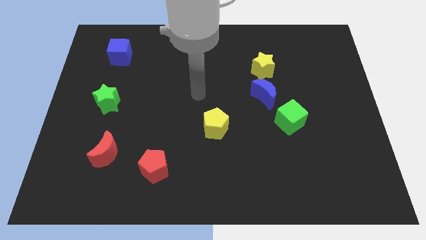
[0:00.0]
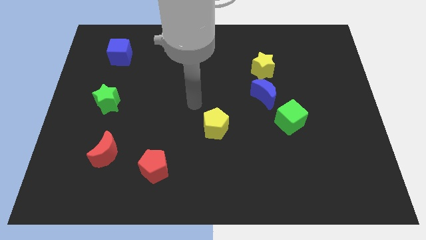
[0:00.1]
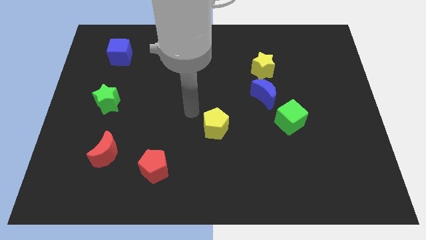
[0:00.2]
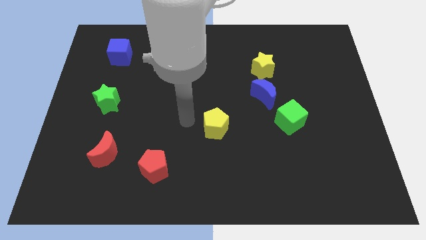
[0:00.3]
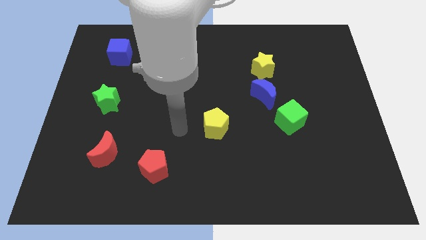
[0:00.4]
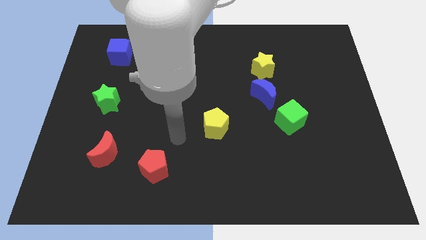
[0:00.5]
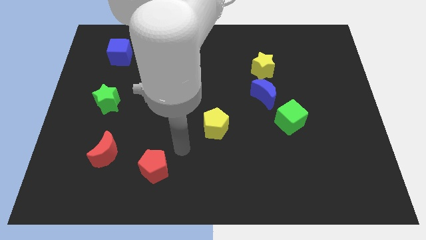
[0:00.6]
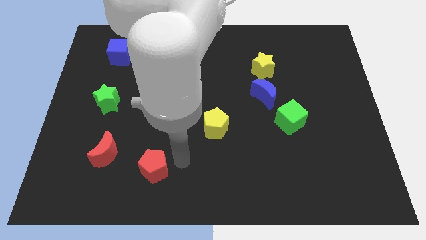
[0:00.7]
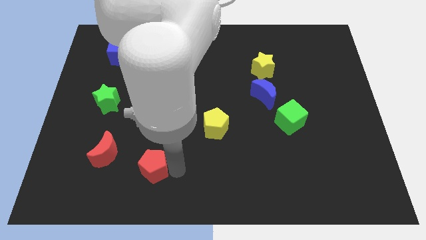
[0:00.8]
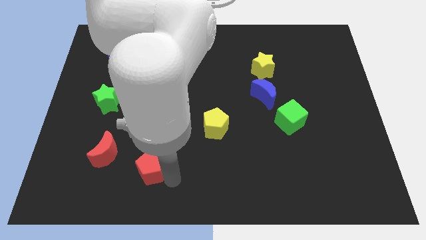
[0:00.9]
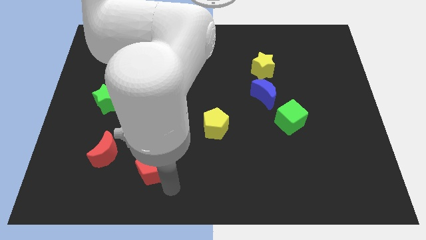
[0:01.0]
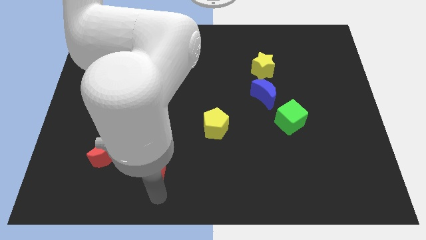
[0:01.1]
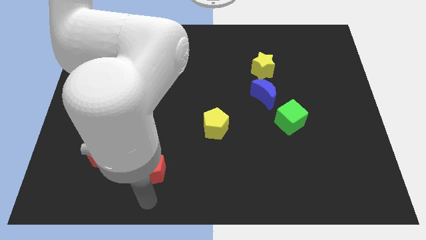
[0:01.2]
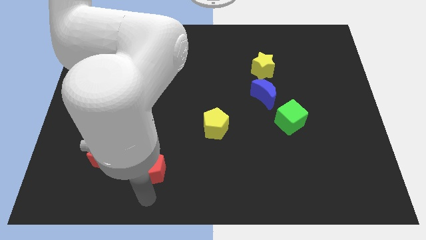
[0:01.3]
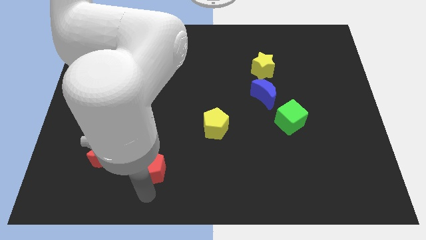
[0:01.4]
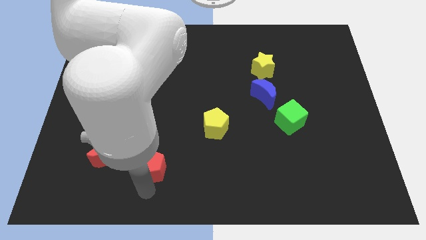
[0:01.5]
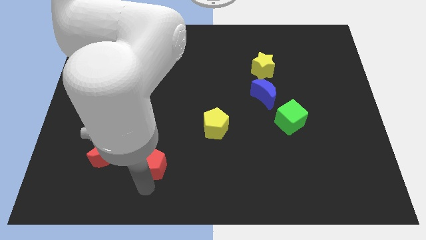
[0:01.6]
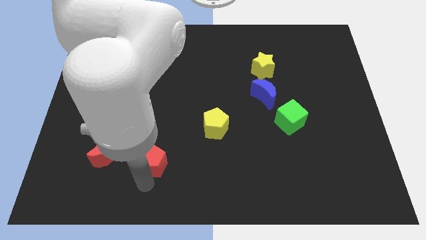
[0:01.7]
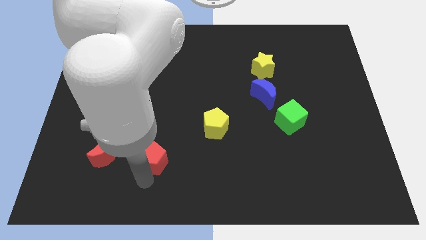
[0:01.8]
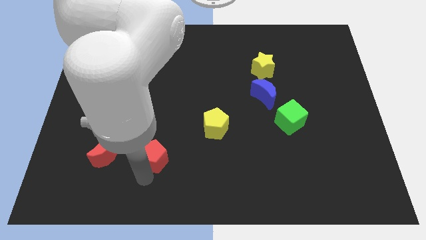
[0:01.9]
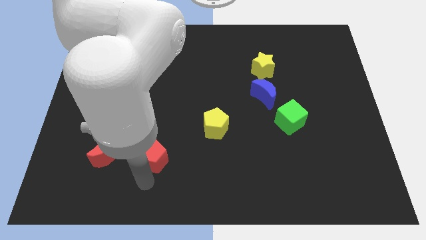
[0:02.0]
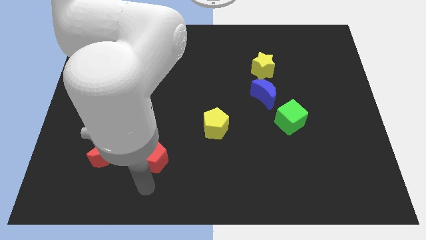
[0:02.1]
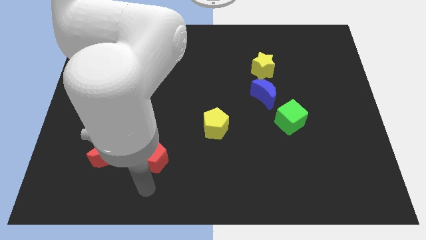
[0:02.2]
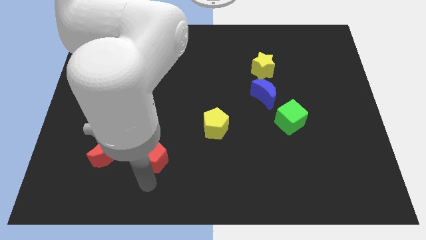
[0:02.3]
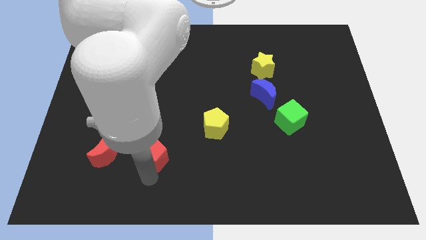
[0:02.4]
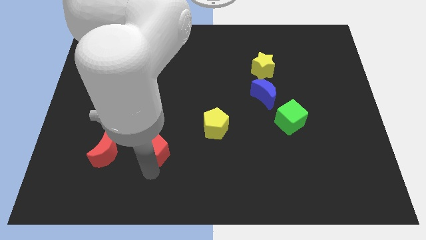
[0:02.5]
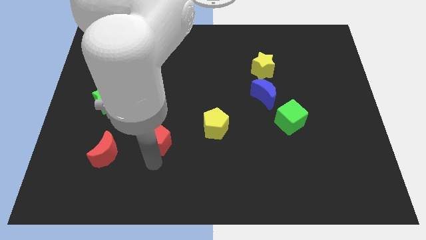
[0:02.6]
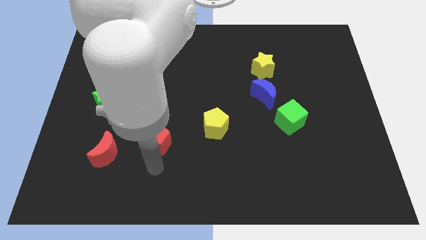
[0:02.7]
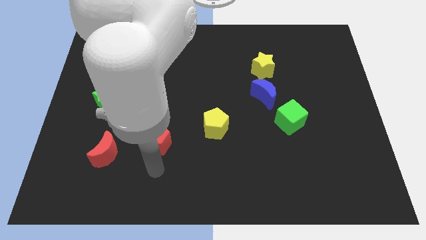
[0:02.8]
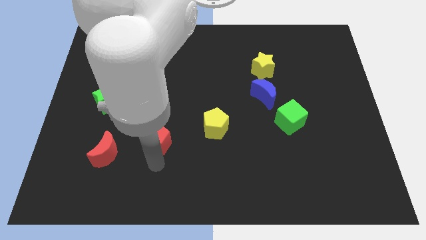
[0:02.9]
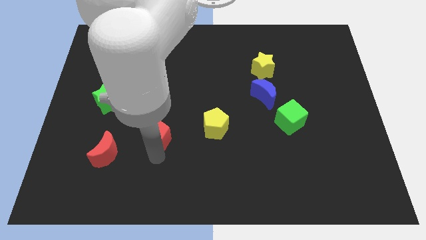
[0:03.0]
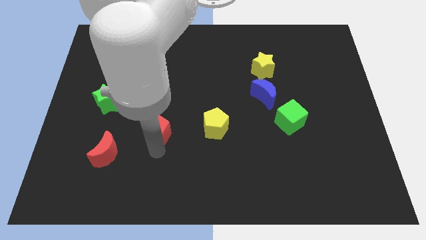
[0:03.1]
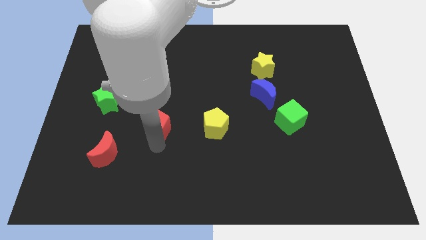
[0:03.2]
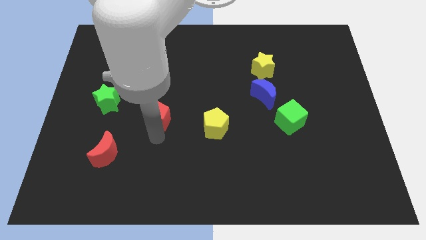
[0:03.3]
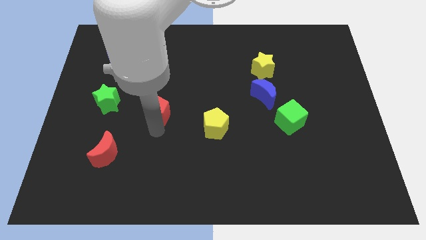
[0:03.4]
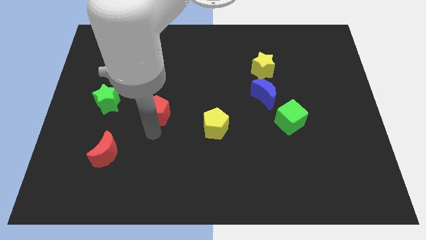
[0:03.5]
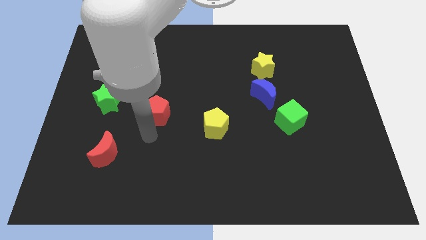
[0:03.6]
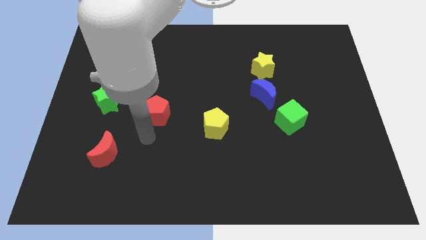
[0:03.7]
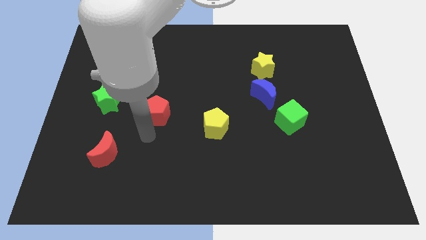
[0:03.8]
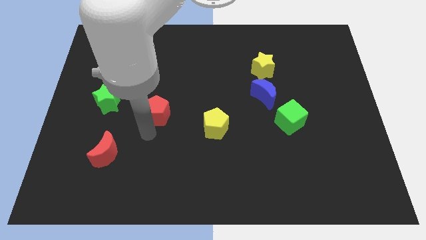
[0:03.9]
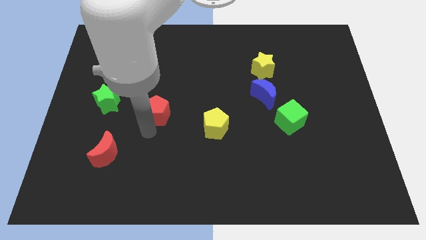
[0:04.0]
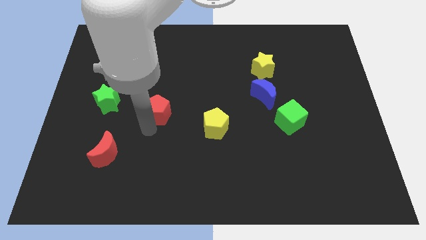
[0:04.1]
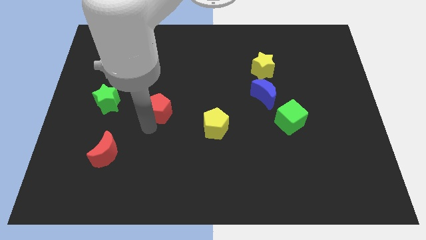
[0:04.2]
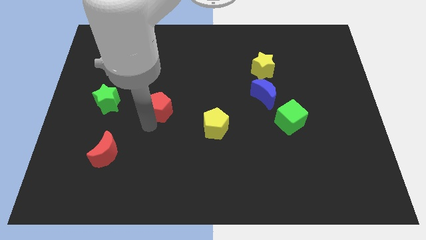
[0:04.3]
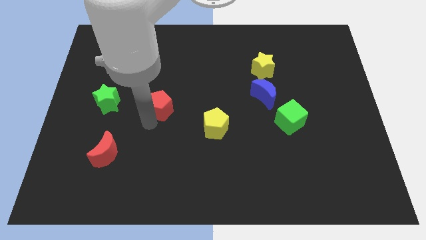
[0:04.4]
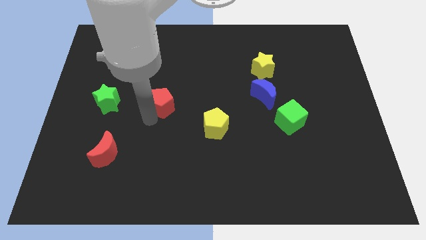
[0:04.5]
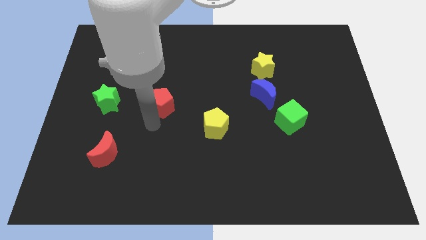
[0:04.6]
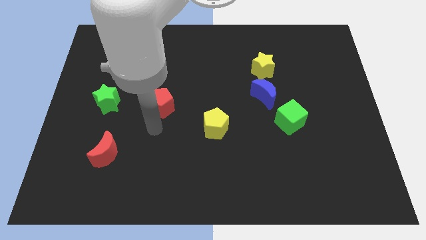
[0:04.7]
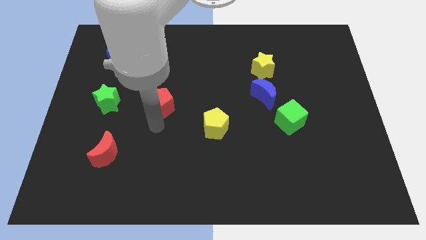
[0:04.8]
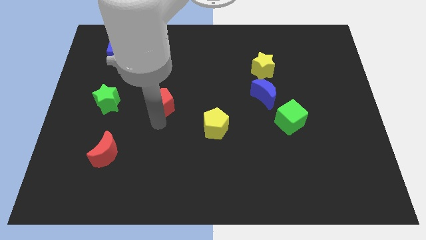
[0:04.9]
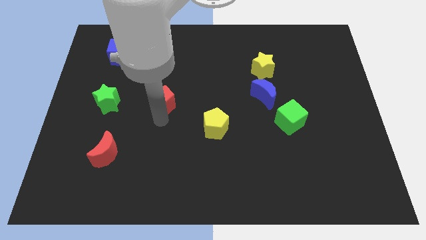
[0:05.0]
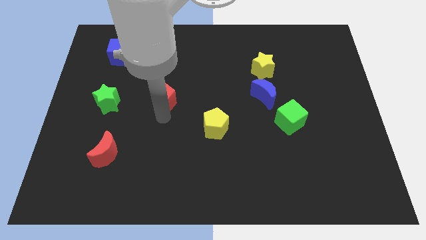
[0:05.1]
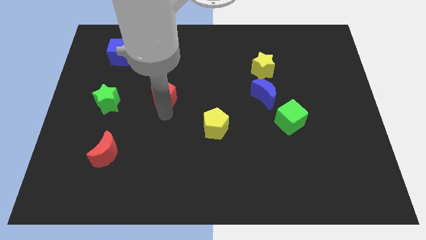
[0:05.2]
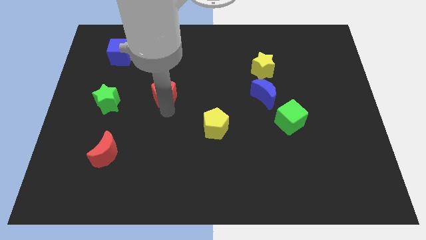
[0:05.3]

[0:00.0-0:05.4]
push the red pentagon upwards

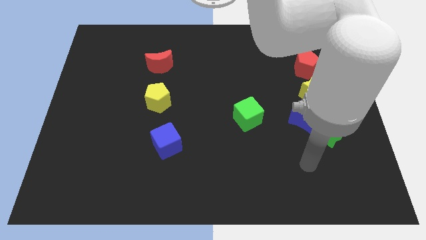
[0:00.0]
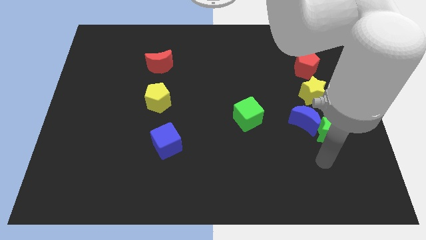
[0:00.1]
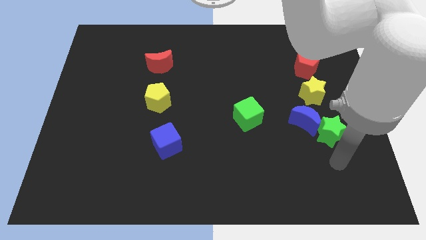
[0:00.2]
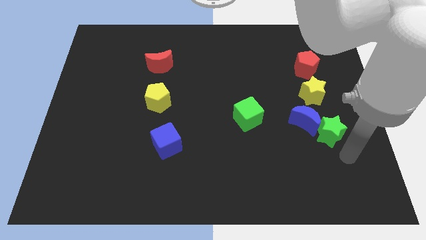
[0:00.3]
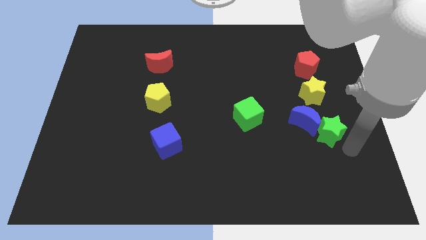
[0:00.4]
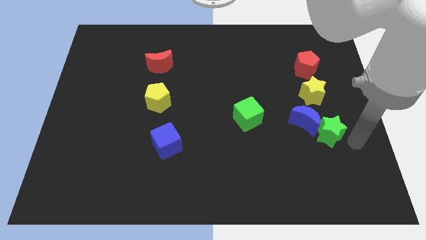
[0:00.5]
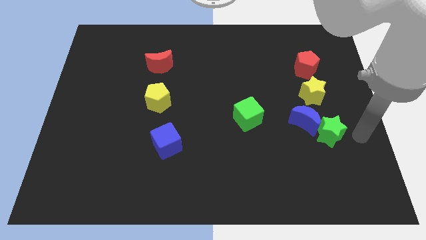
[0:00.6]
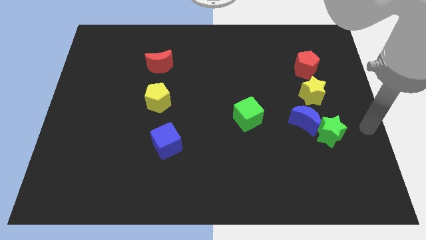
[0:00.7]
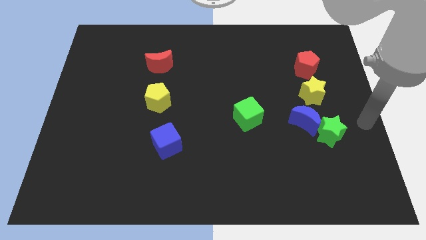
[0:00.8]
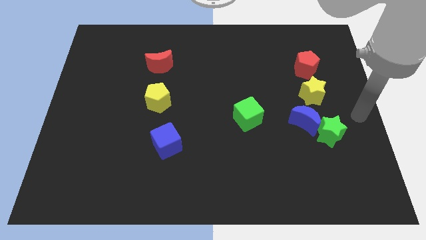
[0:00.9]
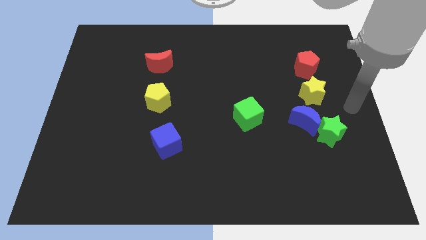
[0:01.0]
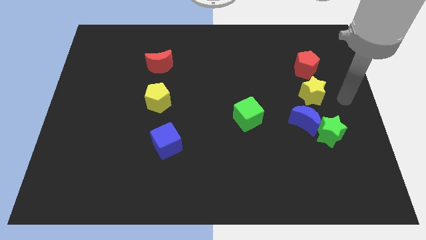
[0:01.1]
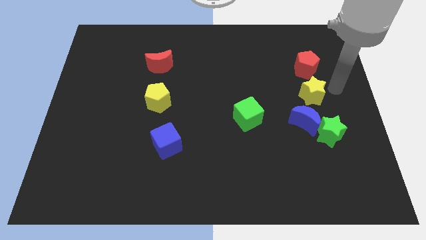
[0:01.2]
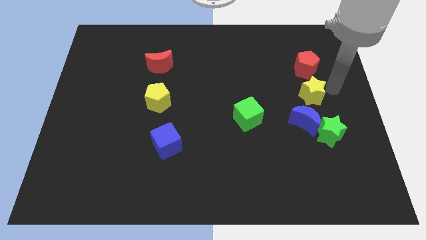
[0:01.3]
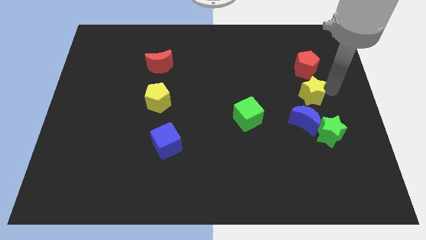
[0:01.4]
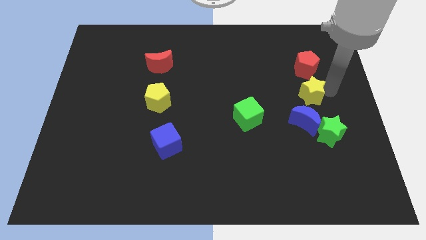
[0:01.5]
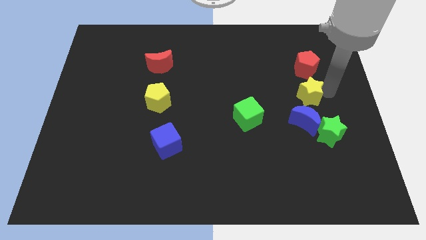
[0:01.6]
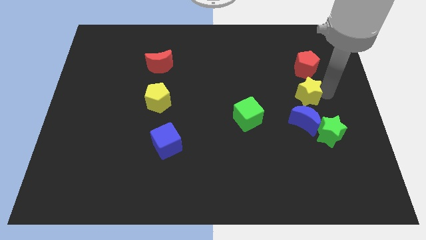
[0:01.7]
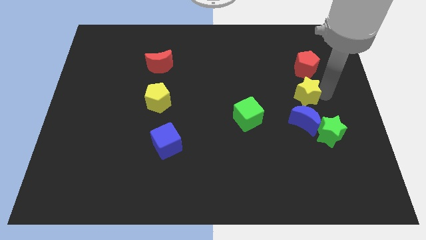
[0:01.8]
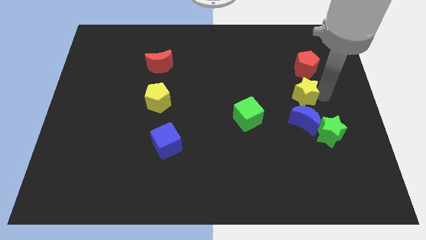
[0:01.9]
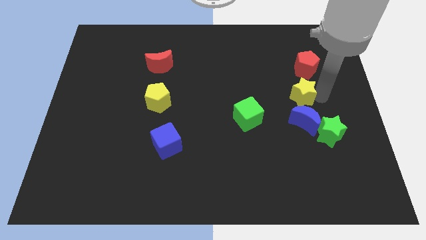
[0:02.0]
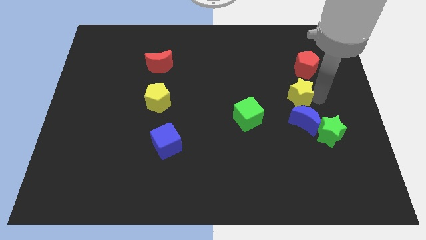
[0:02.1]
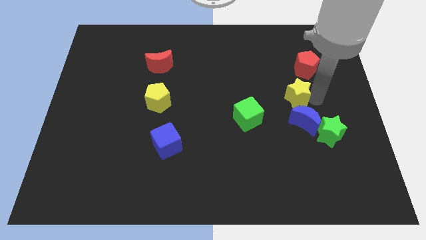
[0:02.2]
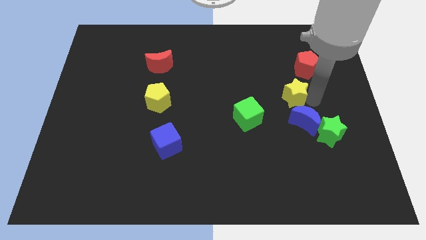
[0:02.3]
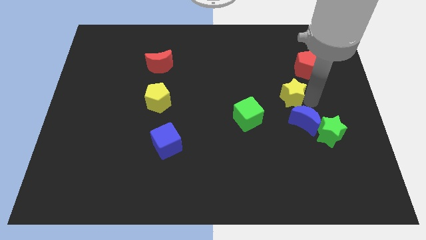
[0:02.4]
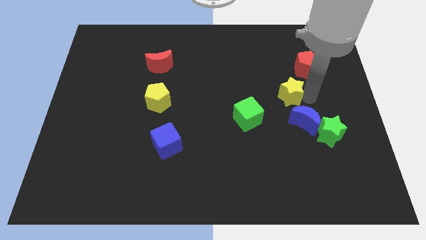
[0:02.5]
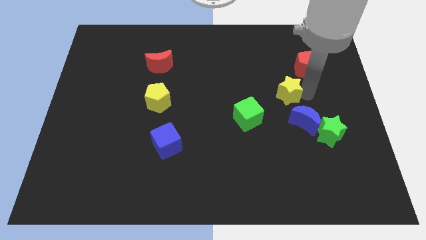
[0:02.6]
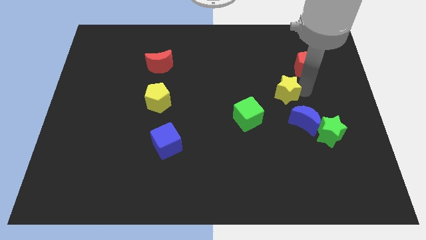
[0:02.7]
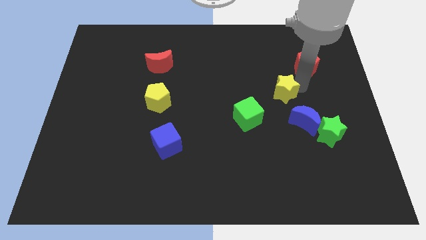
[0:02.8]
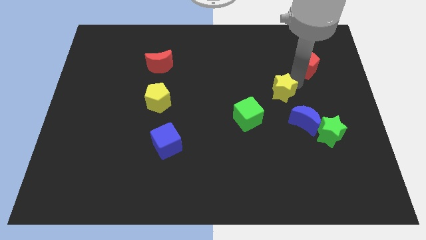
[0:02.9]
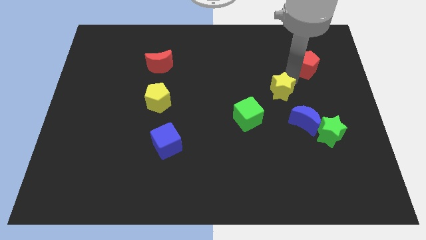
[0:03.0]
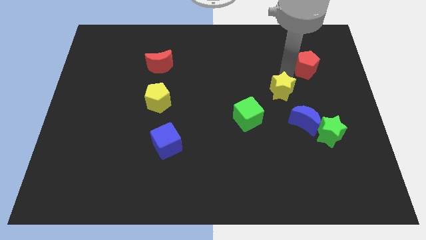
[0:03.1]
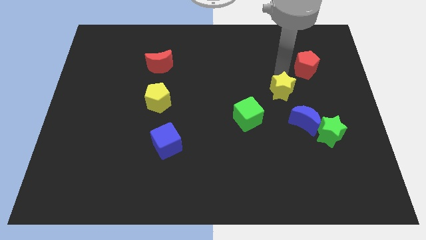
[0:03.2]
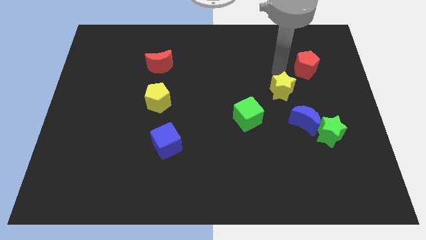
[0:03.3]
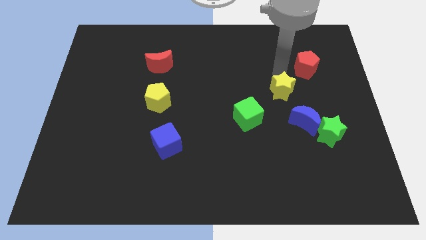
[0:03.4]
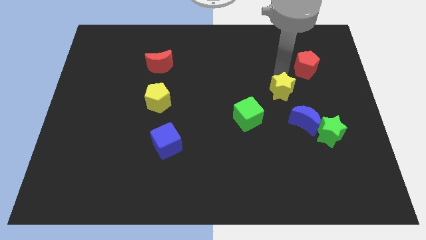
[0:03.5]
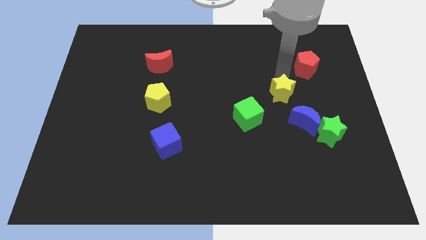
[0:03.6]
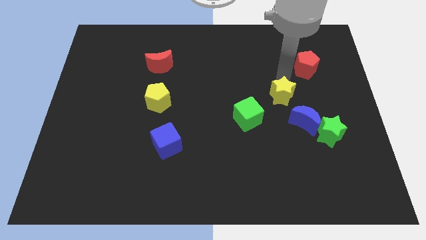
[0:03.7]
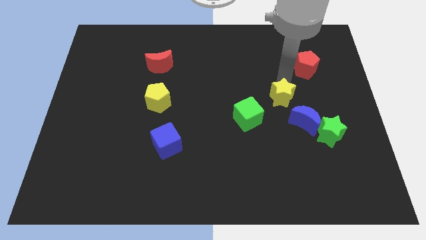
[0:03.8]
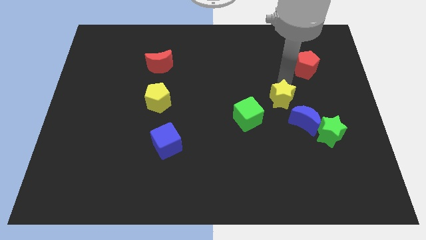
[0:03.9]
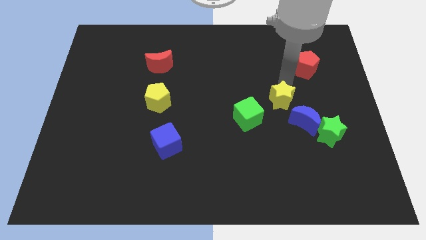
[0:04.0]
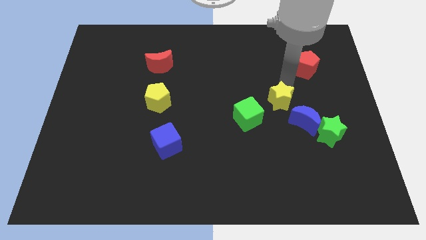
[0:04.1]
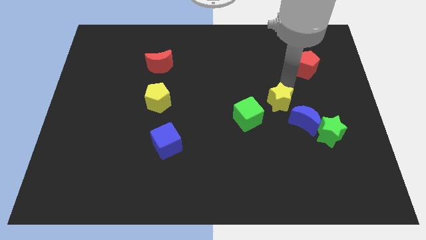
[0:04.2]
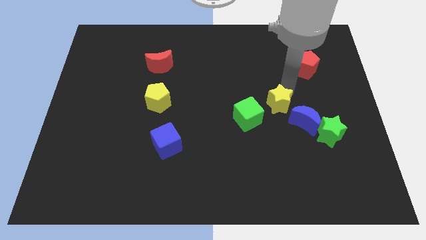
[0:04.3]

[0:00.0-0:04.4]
push the yellow star a little downwards and left
